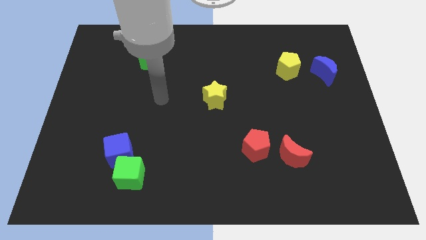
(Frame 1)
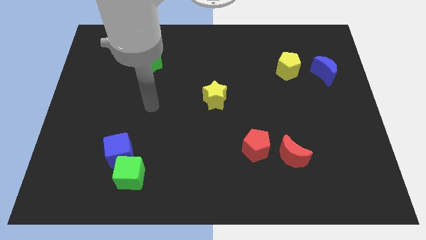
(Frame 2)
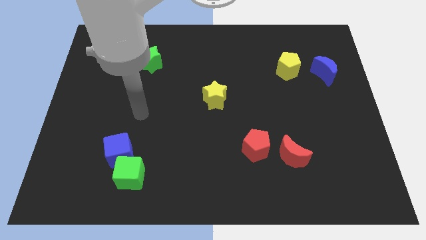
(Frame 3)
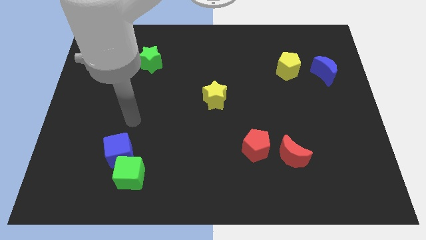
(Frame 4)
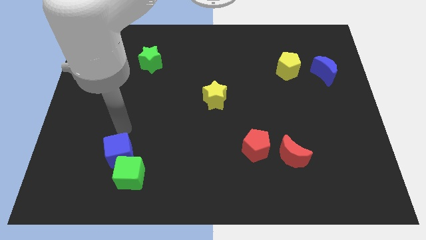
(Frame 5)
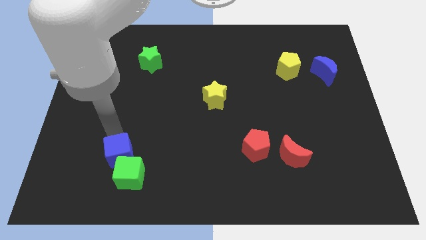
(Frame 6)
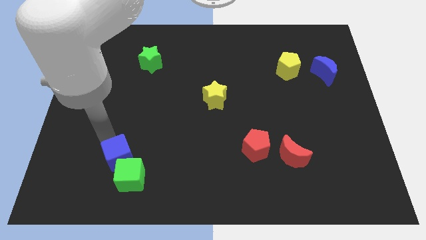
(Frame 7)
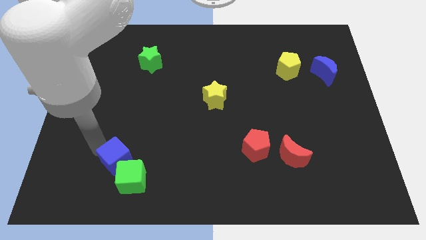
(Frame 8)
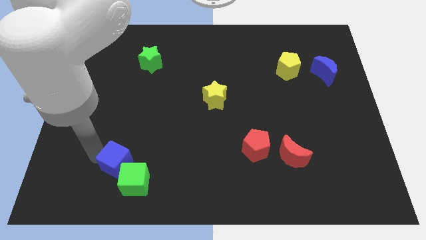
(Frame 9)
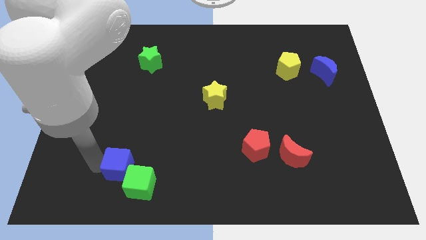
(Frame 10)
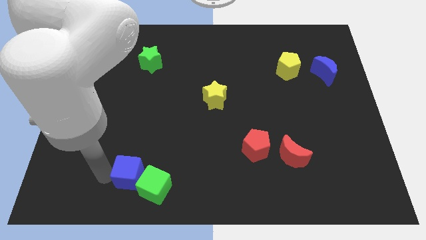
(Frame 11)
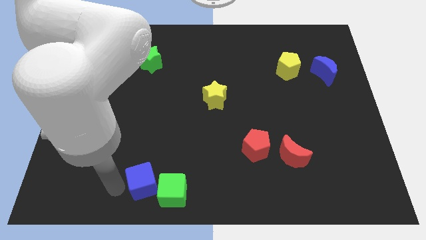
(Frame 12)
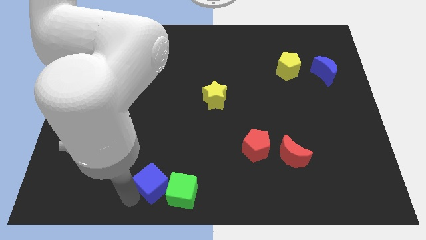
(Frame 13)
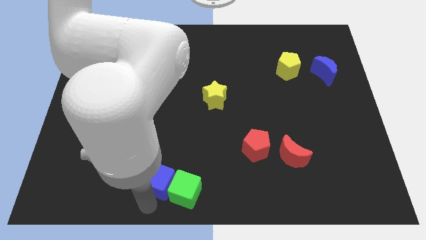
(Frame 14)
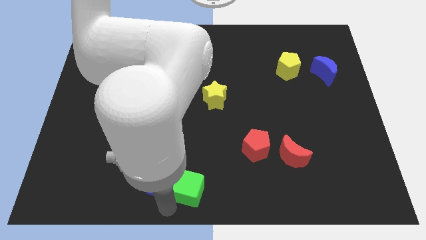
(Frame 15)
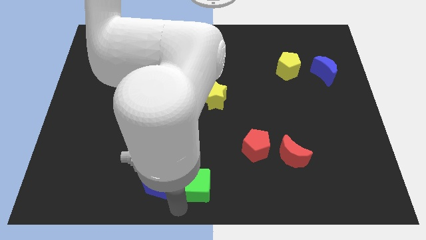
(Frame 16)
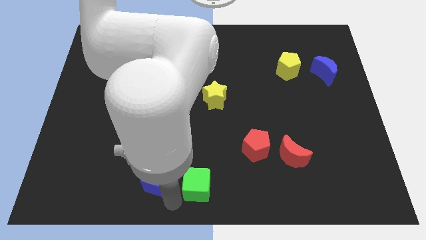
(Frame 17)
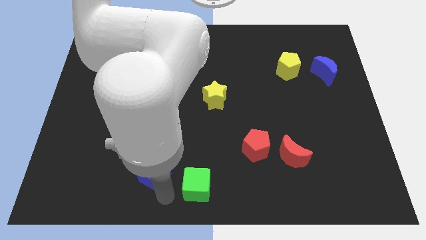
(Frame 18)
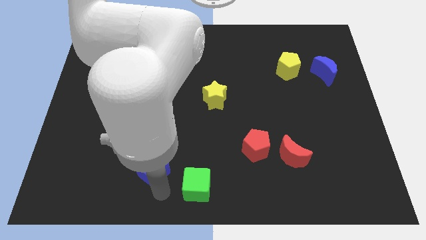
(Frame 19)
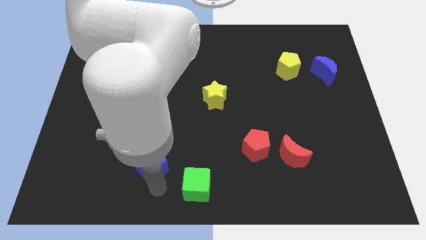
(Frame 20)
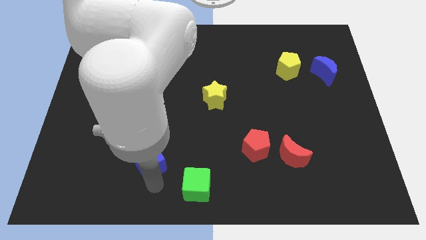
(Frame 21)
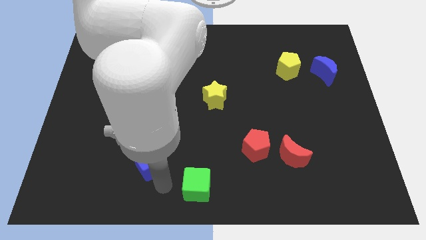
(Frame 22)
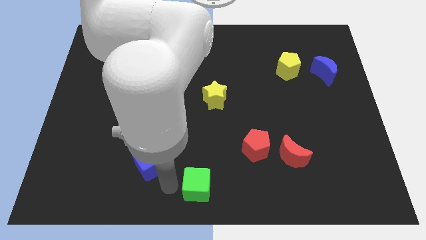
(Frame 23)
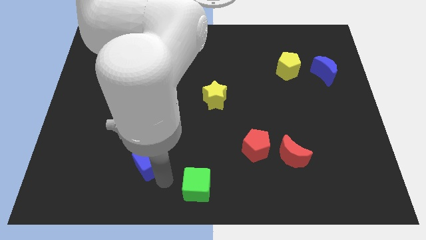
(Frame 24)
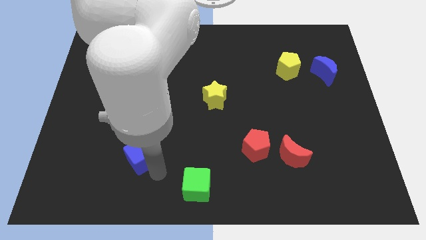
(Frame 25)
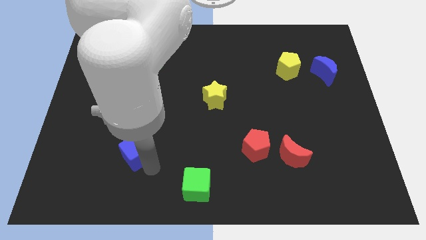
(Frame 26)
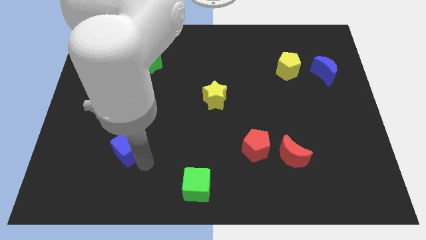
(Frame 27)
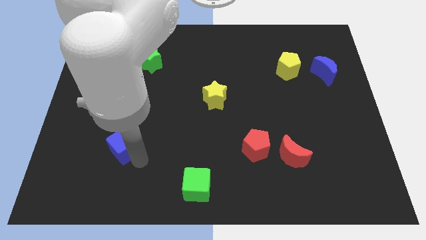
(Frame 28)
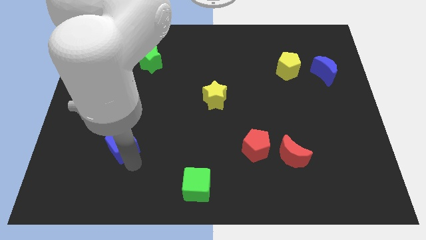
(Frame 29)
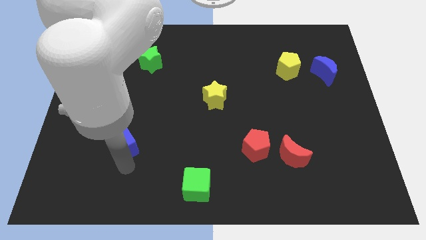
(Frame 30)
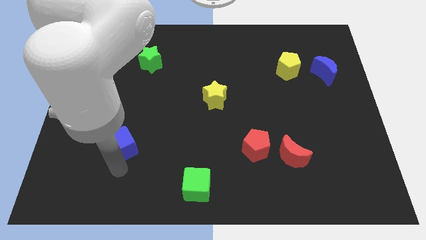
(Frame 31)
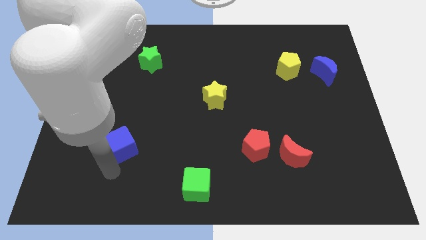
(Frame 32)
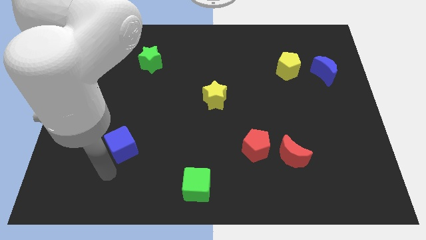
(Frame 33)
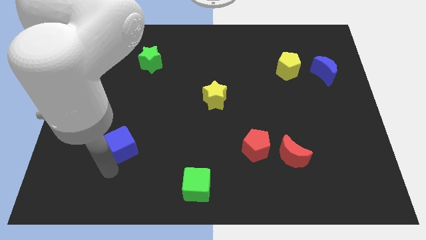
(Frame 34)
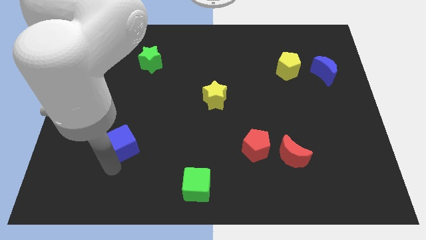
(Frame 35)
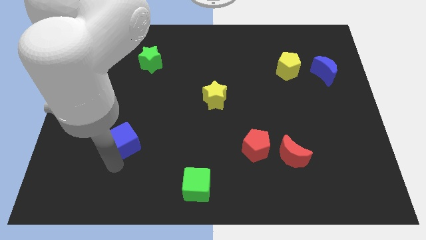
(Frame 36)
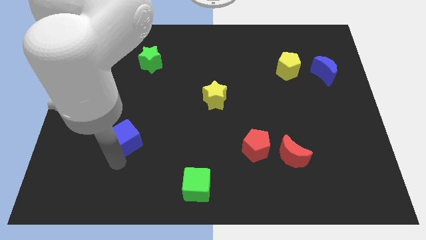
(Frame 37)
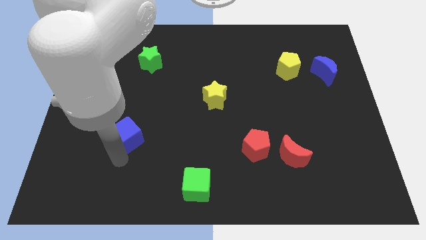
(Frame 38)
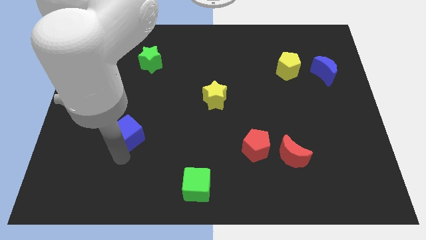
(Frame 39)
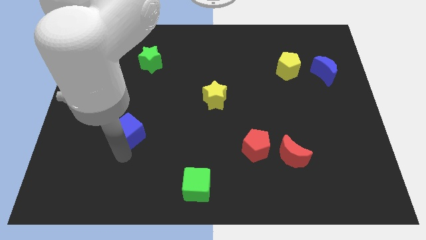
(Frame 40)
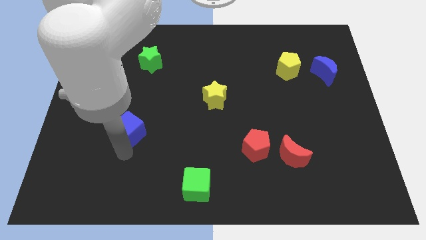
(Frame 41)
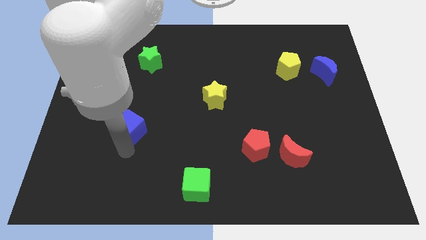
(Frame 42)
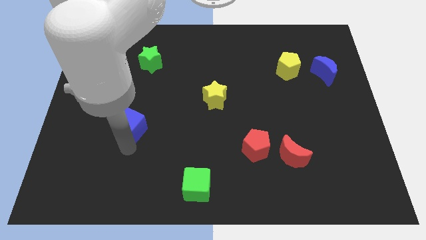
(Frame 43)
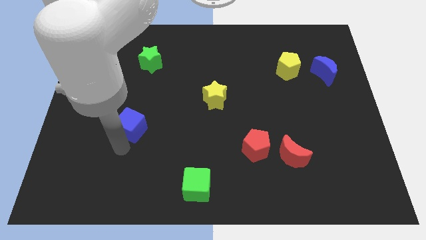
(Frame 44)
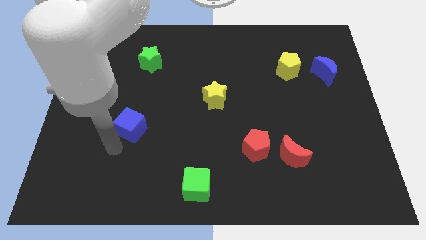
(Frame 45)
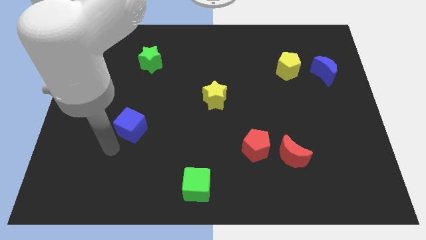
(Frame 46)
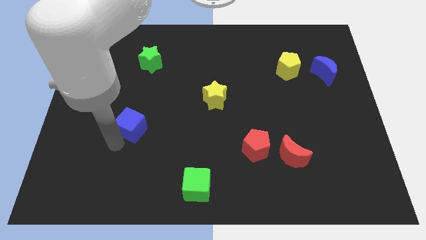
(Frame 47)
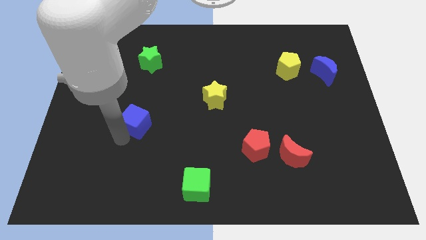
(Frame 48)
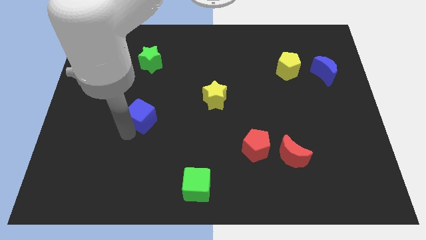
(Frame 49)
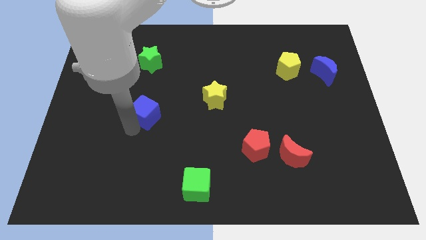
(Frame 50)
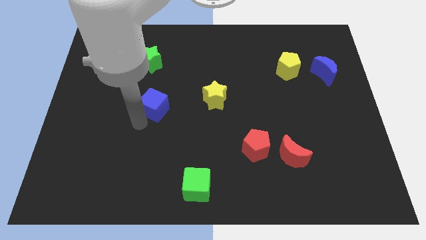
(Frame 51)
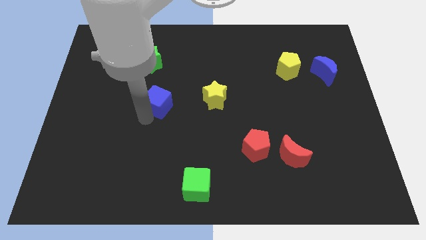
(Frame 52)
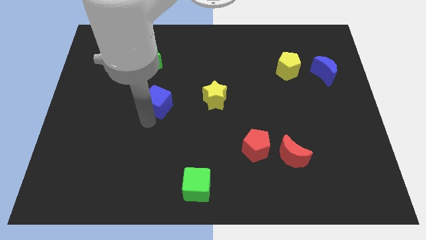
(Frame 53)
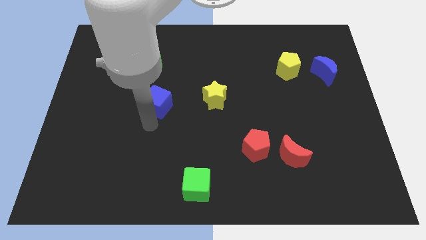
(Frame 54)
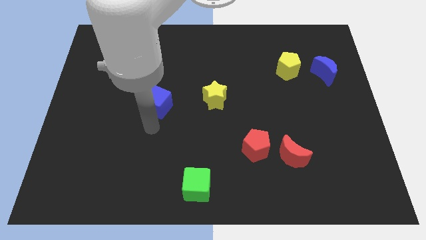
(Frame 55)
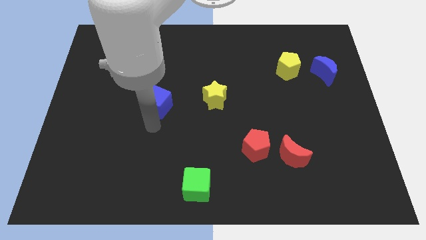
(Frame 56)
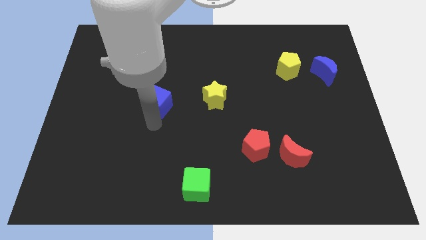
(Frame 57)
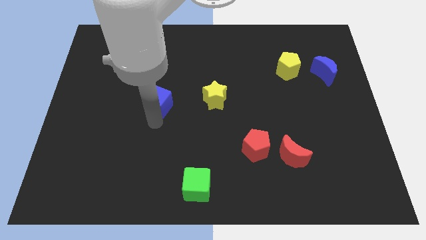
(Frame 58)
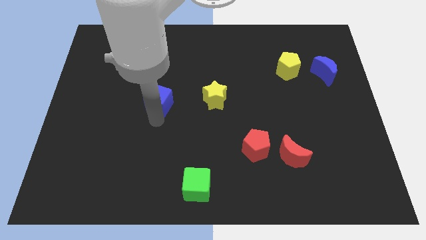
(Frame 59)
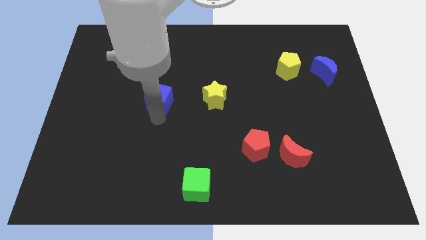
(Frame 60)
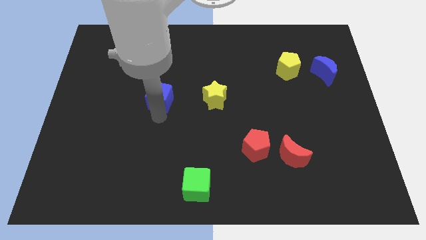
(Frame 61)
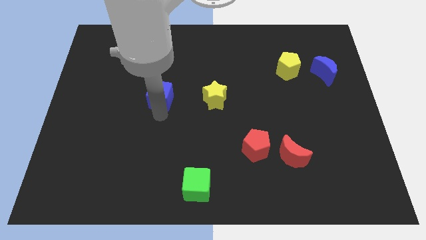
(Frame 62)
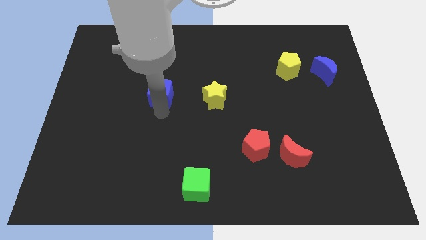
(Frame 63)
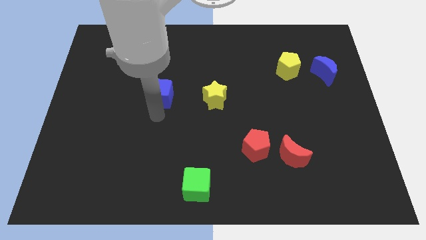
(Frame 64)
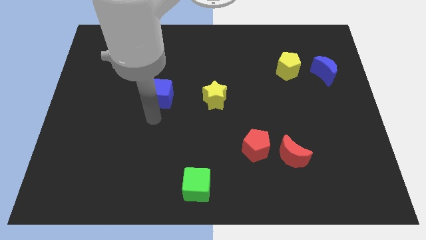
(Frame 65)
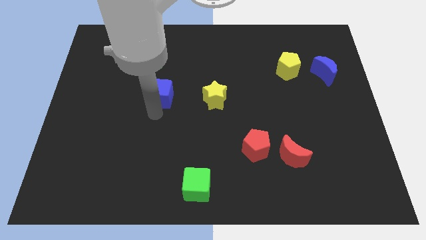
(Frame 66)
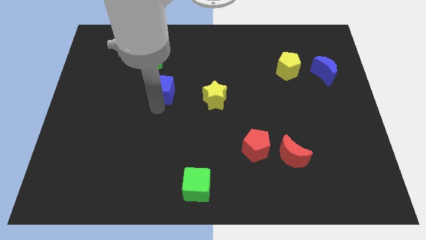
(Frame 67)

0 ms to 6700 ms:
push the blue cube to the bottom right of the green star
